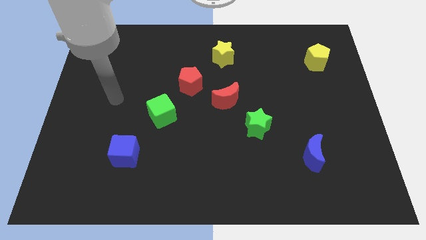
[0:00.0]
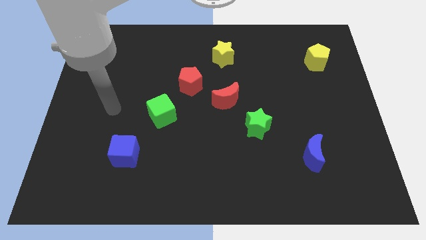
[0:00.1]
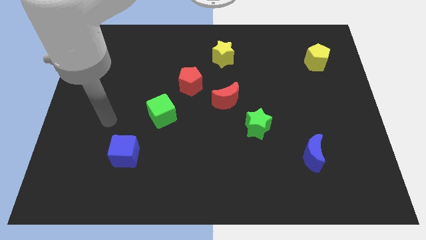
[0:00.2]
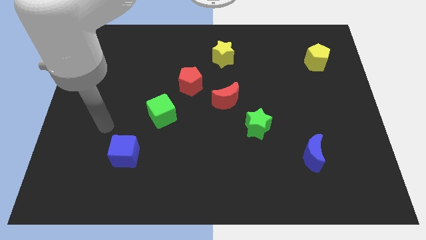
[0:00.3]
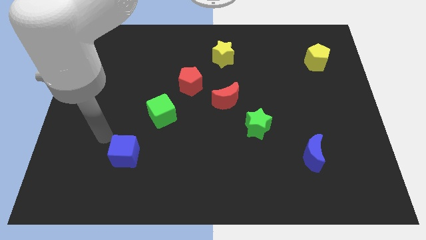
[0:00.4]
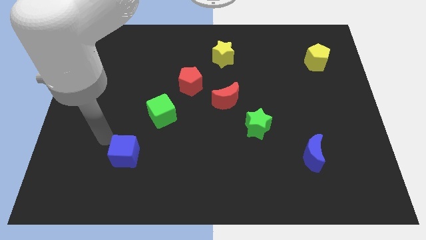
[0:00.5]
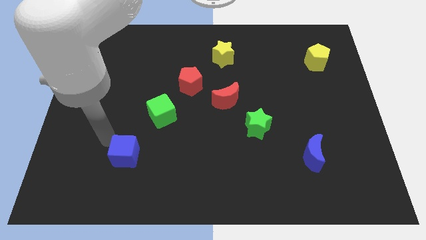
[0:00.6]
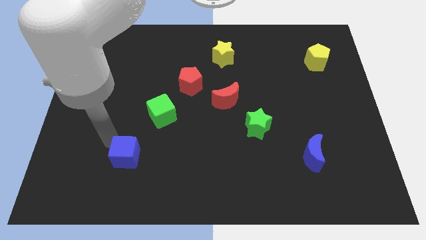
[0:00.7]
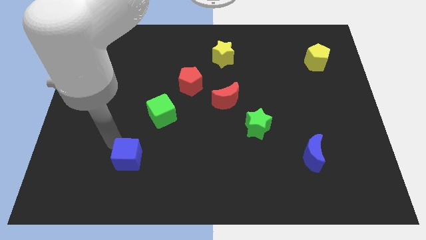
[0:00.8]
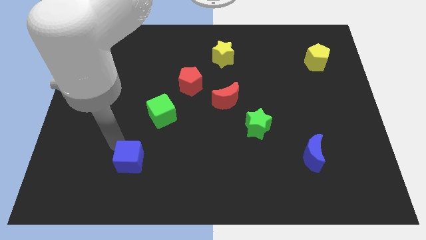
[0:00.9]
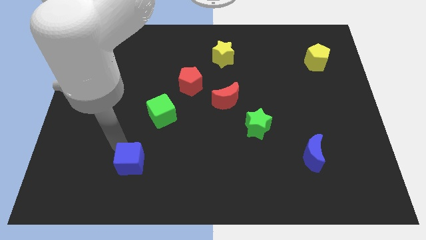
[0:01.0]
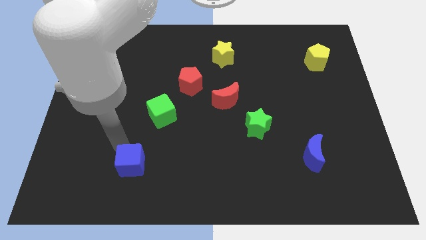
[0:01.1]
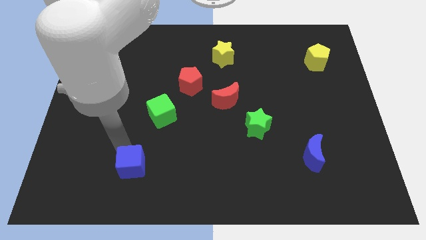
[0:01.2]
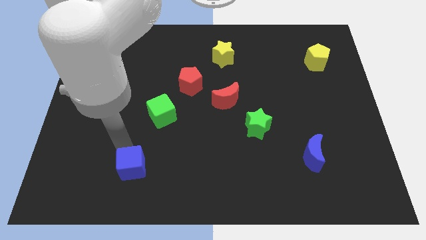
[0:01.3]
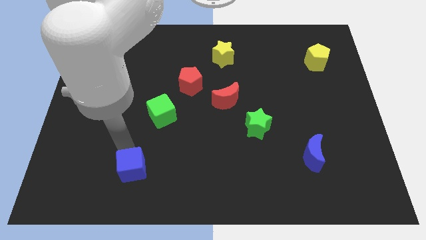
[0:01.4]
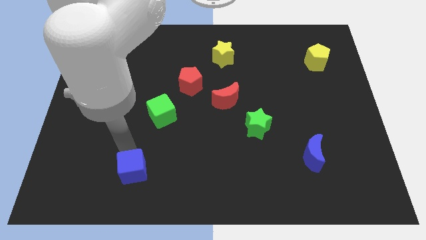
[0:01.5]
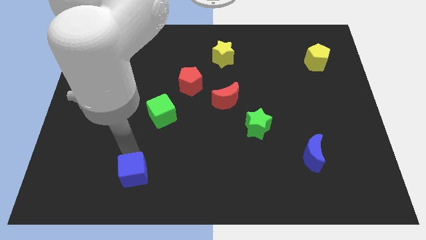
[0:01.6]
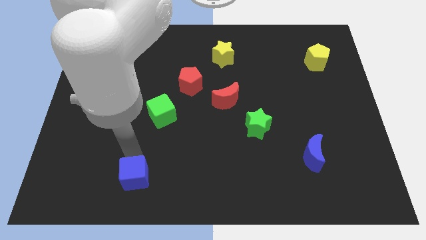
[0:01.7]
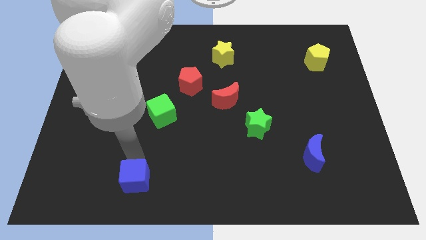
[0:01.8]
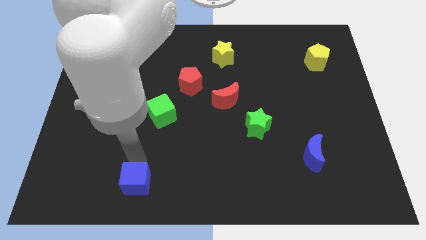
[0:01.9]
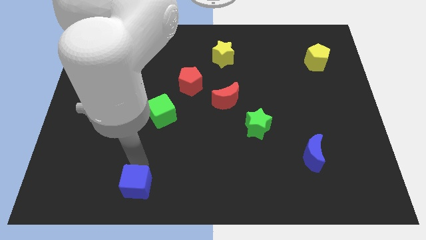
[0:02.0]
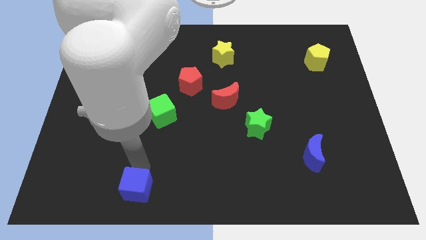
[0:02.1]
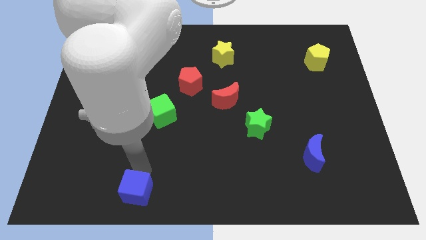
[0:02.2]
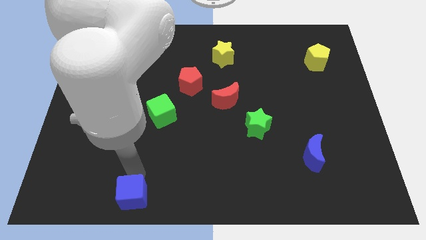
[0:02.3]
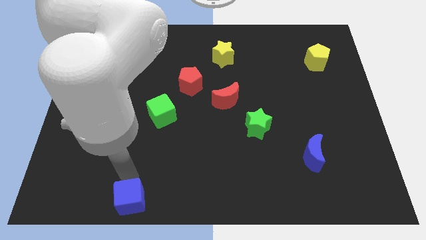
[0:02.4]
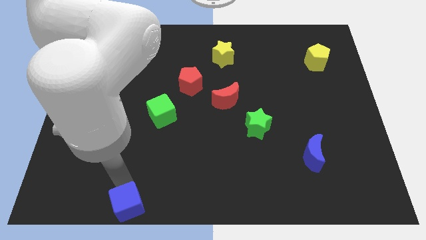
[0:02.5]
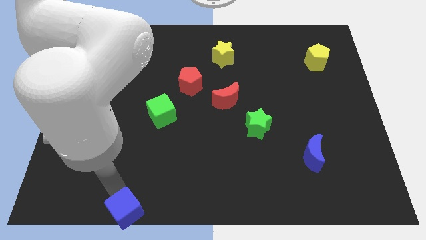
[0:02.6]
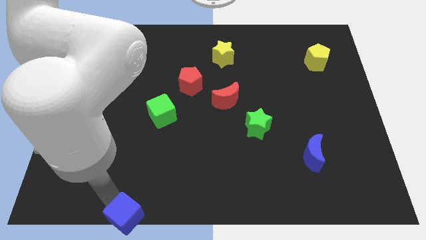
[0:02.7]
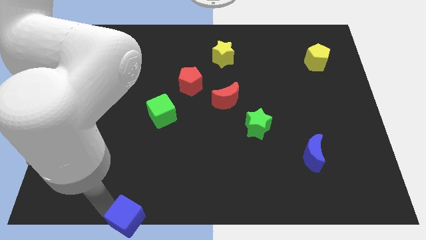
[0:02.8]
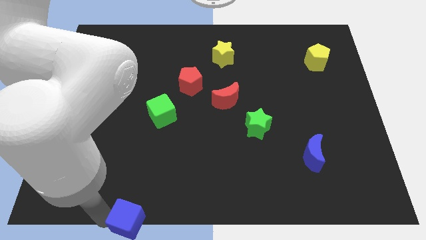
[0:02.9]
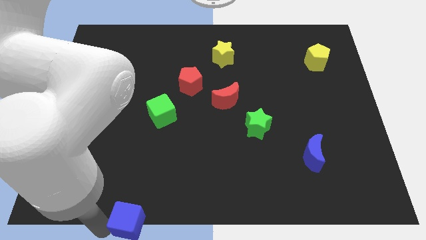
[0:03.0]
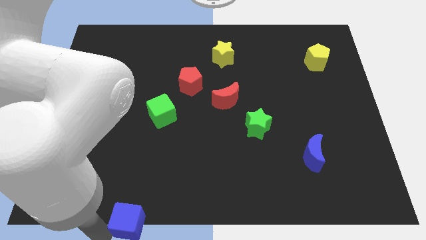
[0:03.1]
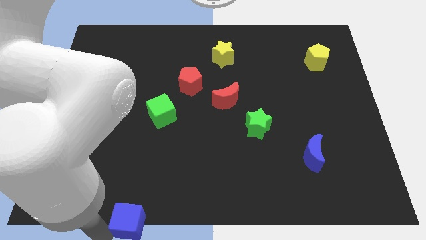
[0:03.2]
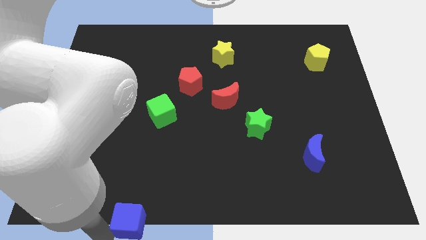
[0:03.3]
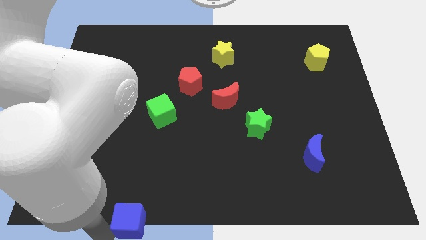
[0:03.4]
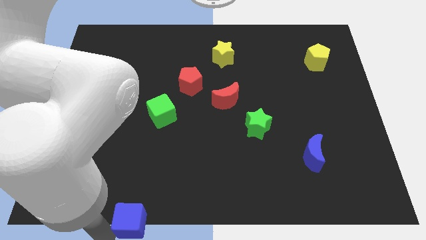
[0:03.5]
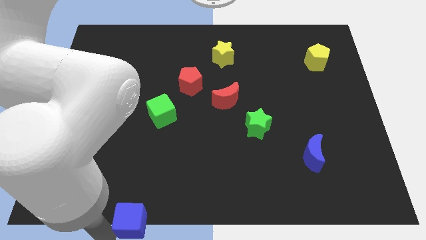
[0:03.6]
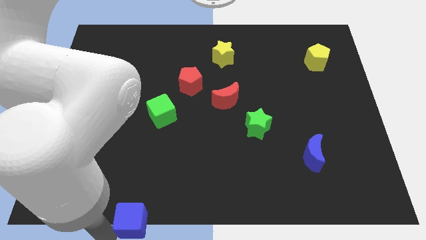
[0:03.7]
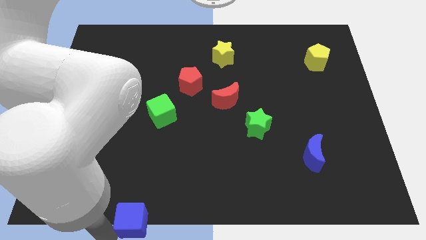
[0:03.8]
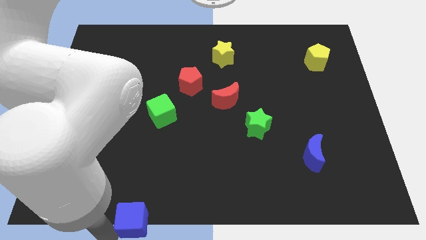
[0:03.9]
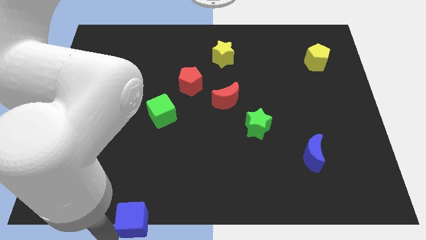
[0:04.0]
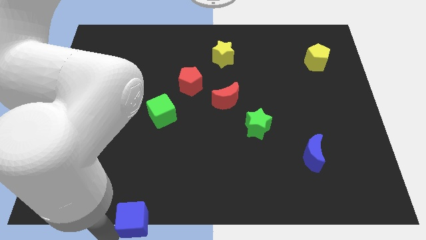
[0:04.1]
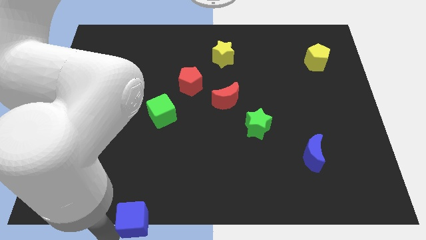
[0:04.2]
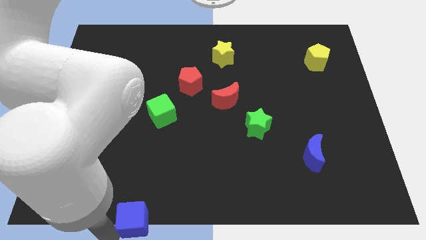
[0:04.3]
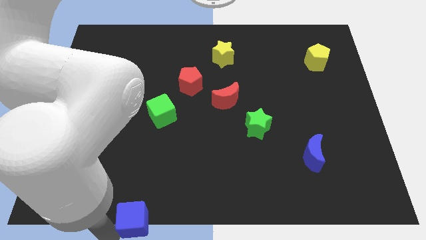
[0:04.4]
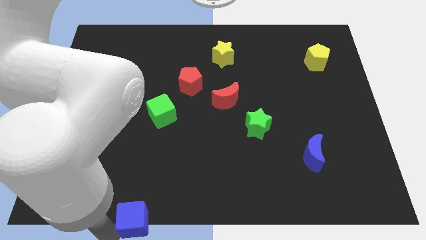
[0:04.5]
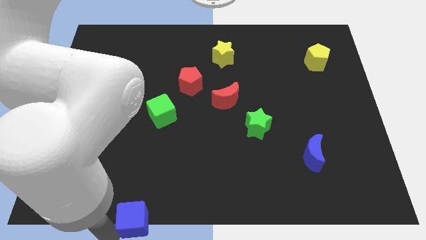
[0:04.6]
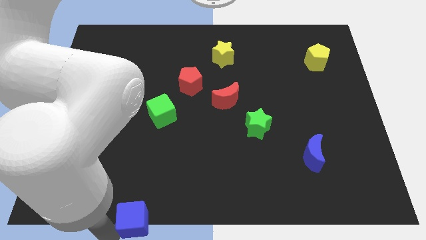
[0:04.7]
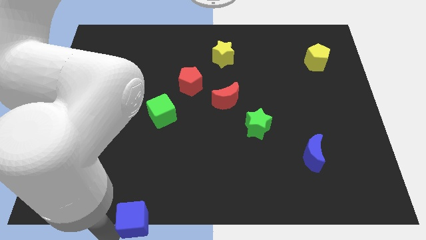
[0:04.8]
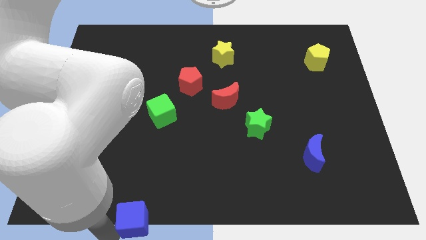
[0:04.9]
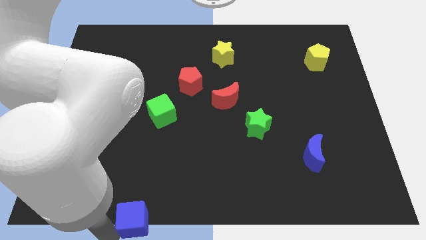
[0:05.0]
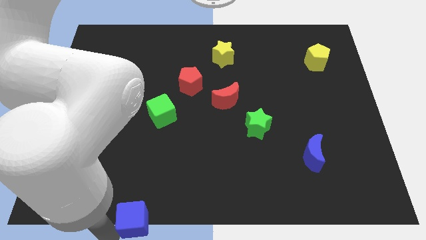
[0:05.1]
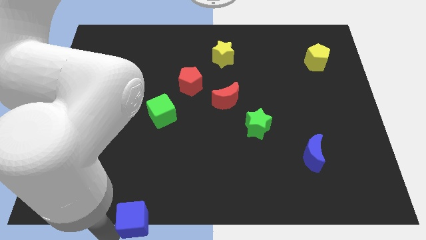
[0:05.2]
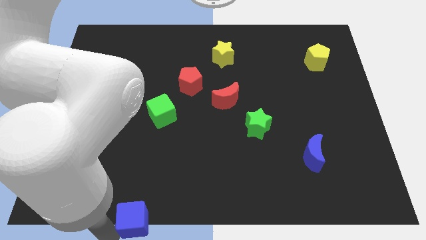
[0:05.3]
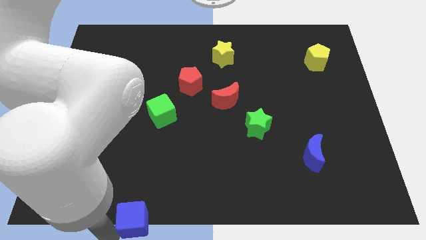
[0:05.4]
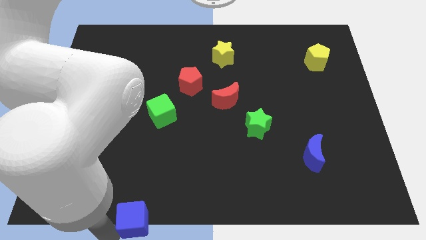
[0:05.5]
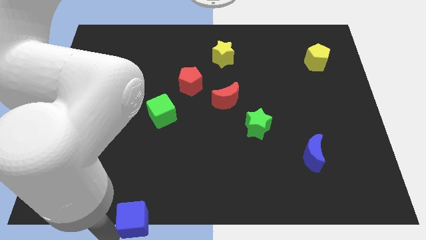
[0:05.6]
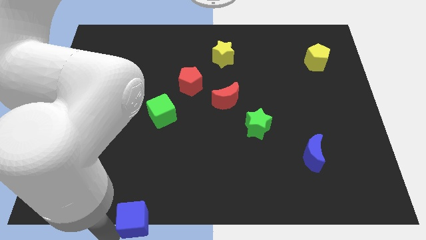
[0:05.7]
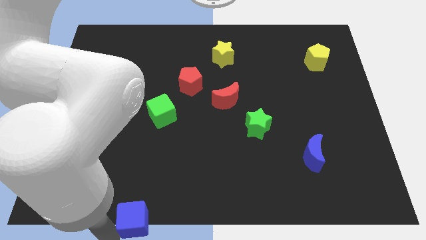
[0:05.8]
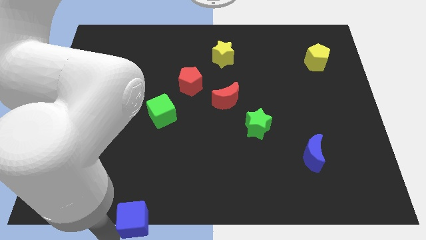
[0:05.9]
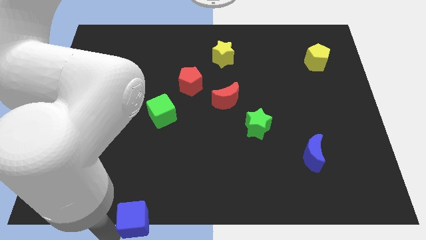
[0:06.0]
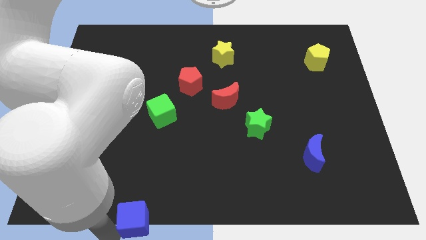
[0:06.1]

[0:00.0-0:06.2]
put the blue cube to the bottom

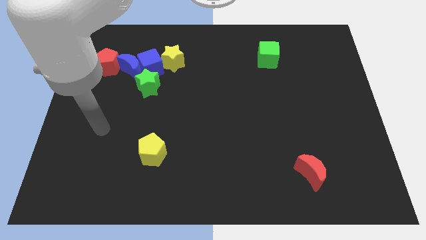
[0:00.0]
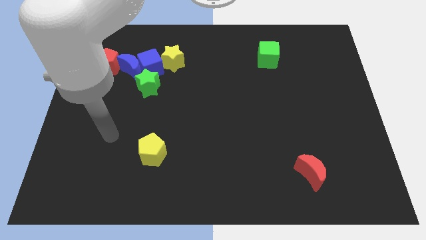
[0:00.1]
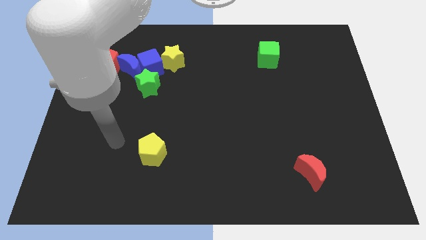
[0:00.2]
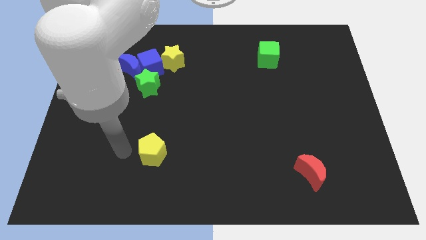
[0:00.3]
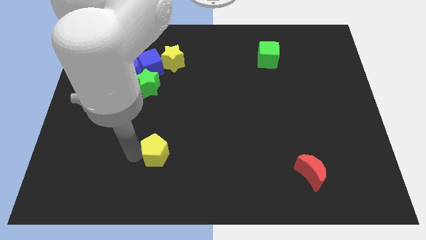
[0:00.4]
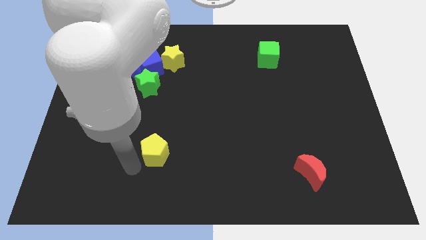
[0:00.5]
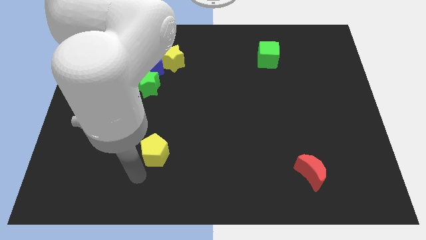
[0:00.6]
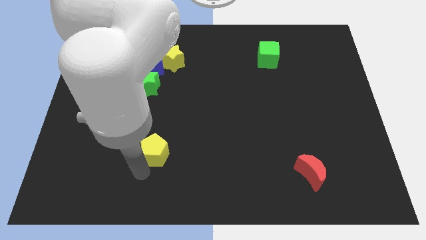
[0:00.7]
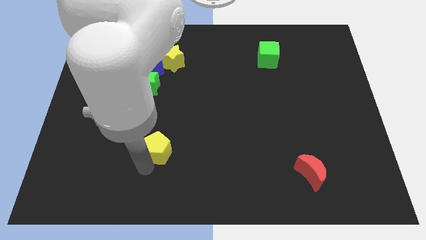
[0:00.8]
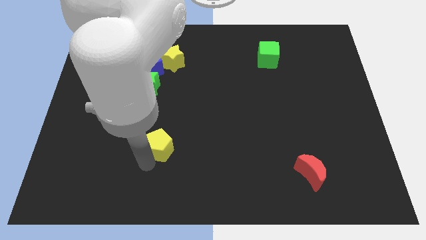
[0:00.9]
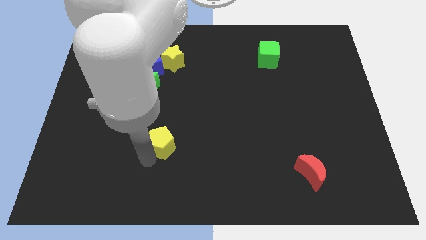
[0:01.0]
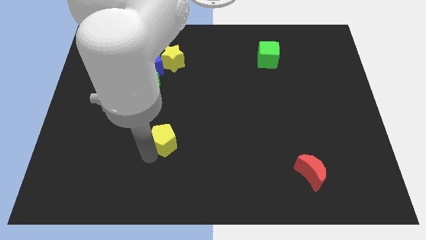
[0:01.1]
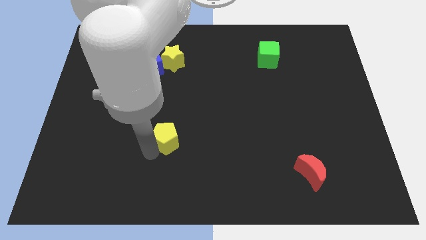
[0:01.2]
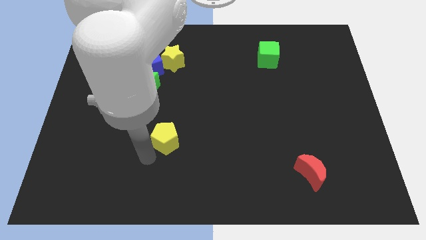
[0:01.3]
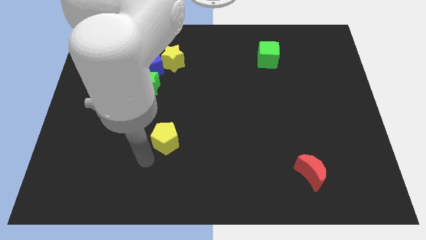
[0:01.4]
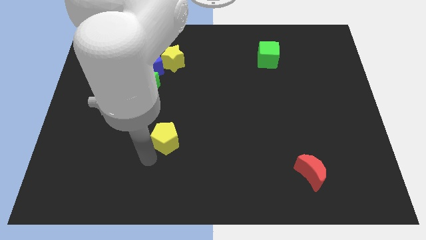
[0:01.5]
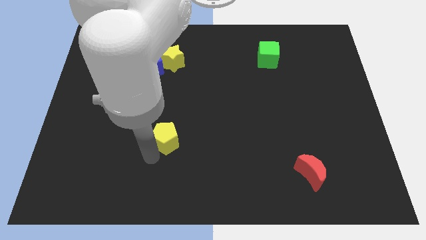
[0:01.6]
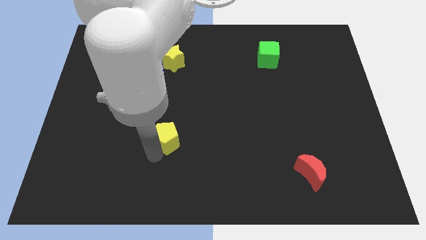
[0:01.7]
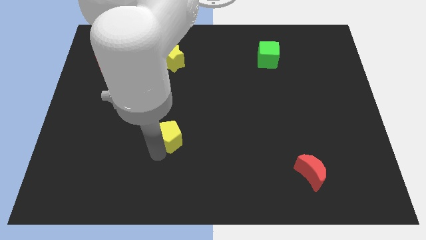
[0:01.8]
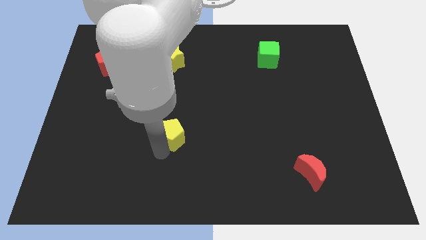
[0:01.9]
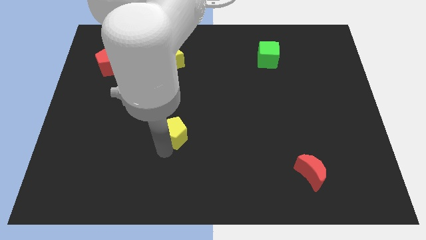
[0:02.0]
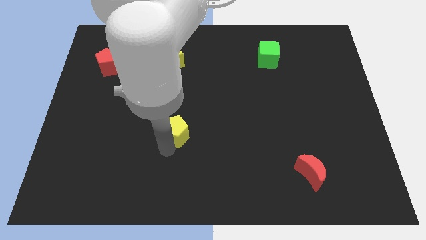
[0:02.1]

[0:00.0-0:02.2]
slide the yellow pentagon to the middle of the board
